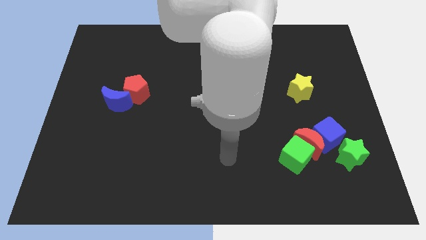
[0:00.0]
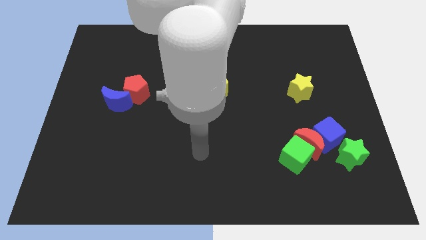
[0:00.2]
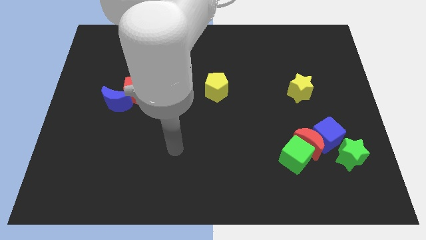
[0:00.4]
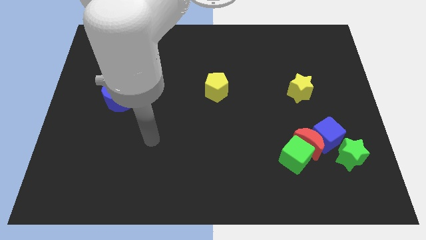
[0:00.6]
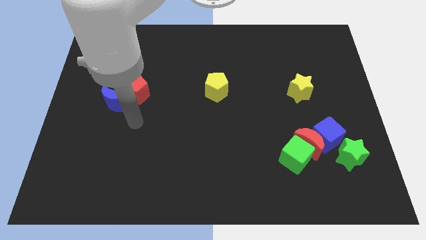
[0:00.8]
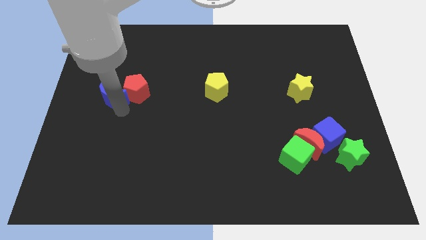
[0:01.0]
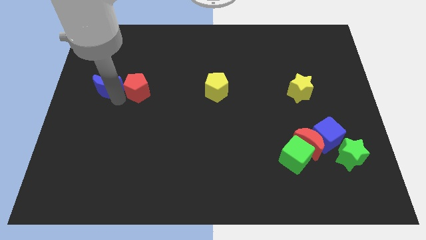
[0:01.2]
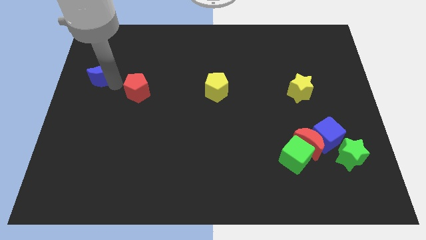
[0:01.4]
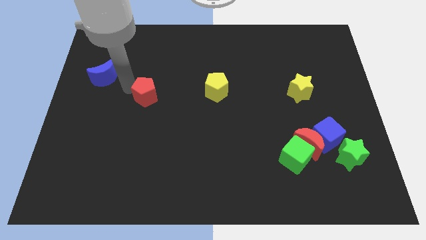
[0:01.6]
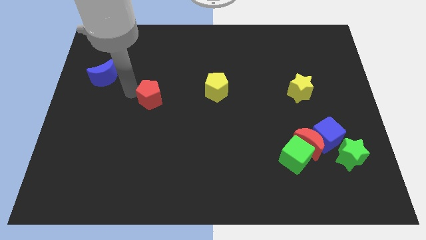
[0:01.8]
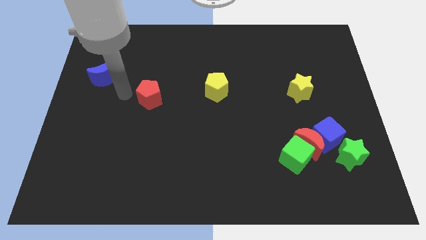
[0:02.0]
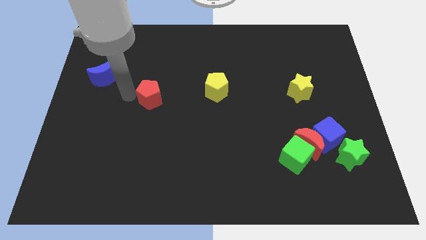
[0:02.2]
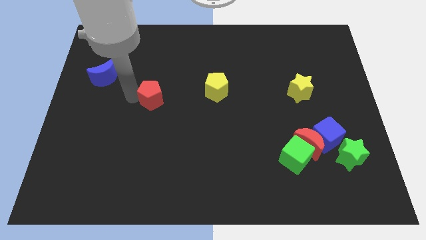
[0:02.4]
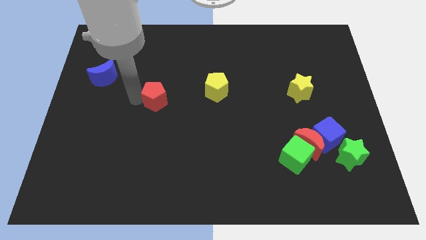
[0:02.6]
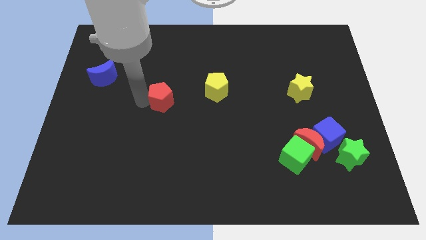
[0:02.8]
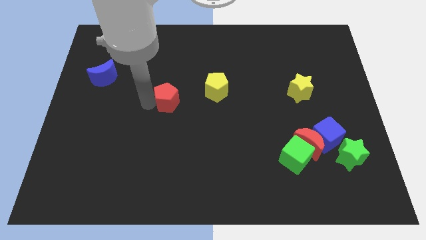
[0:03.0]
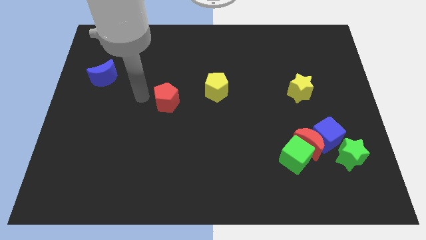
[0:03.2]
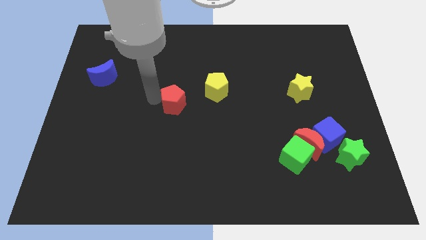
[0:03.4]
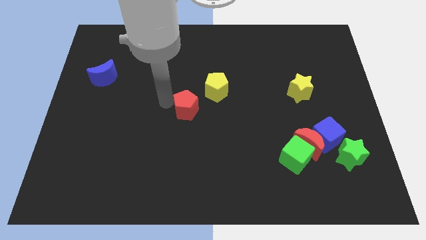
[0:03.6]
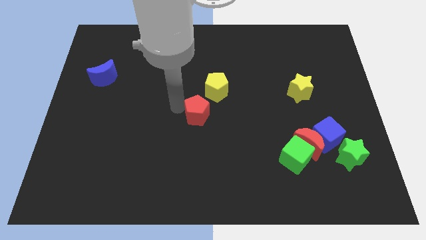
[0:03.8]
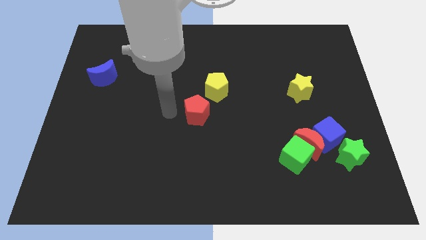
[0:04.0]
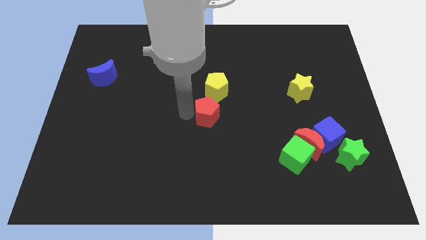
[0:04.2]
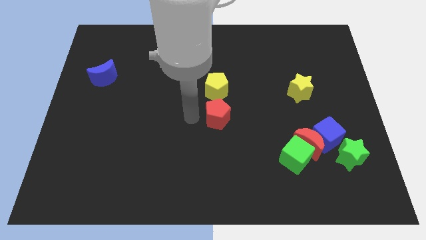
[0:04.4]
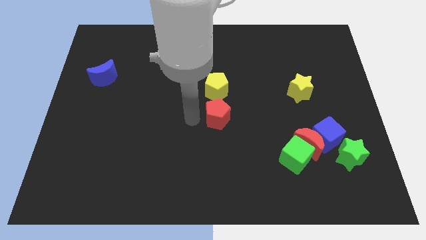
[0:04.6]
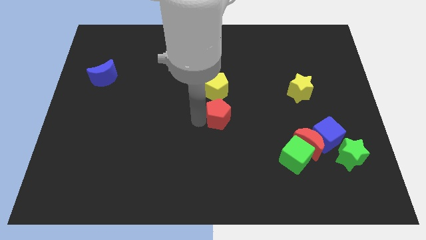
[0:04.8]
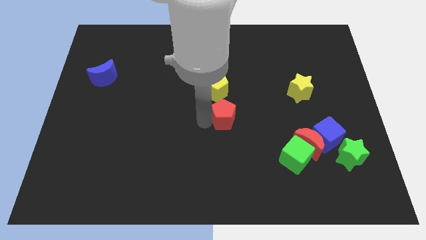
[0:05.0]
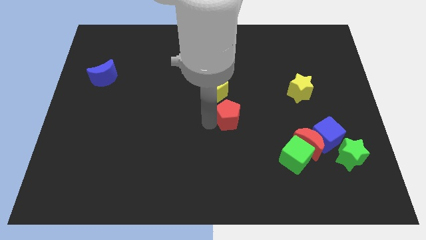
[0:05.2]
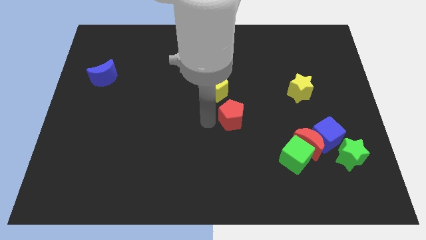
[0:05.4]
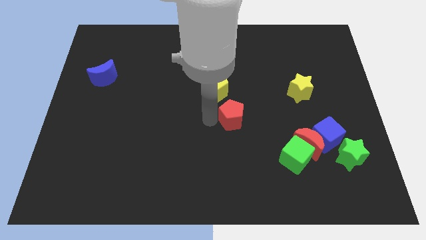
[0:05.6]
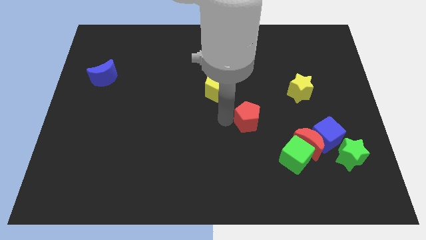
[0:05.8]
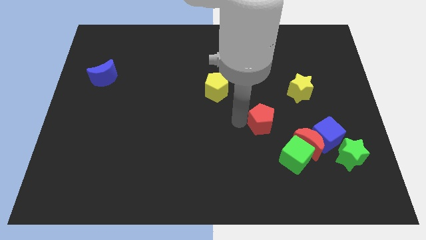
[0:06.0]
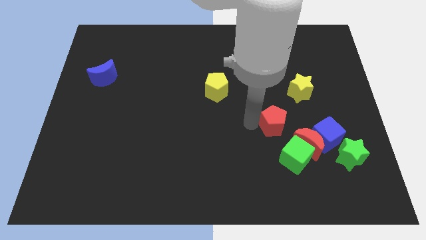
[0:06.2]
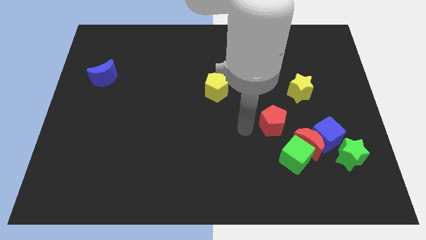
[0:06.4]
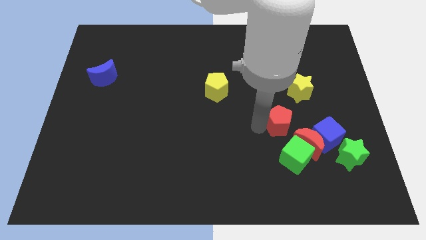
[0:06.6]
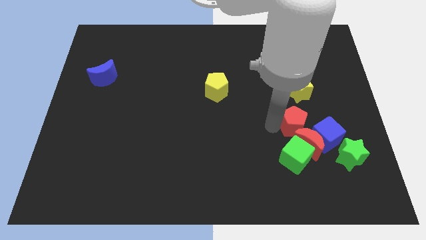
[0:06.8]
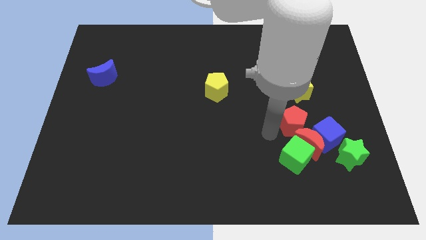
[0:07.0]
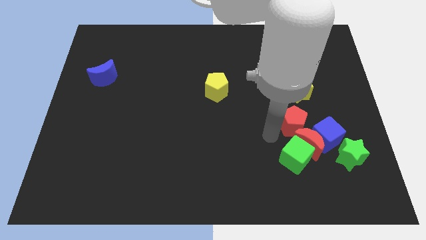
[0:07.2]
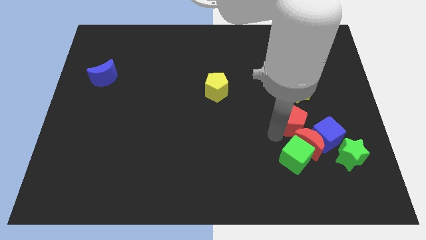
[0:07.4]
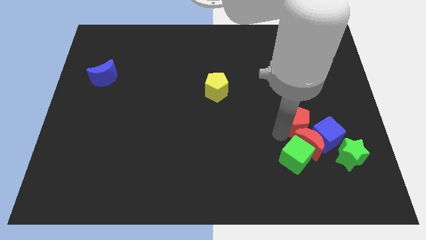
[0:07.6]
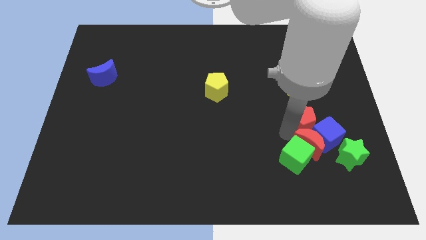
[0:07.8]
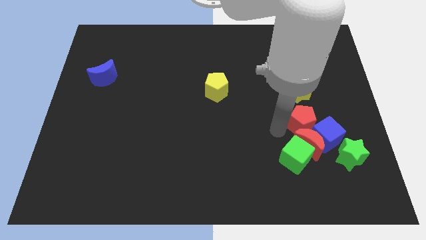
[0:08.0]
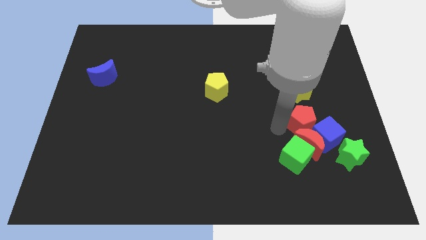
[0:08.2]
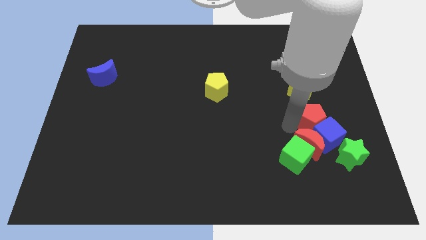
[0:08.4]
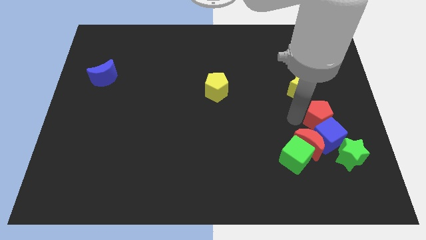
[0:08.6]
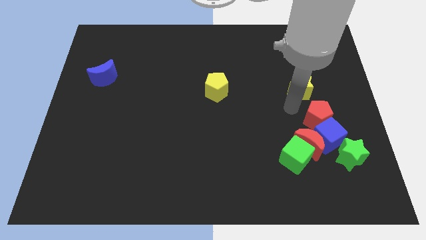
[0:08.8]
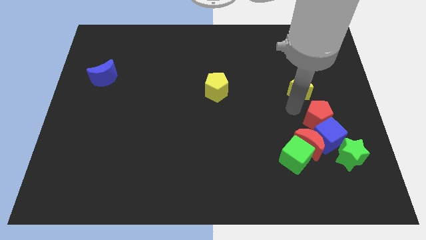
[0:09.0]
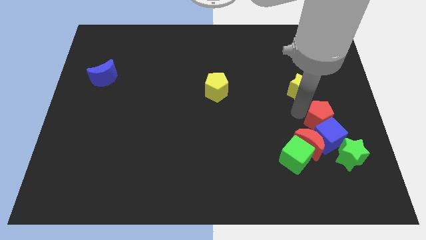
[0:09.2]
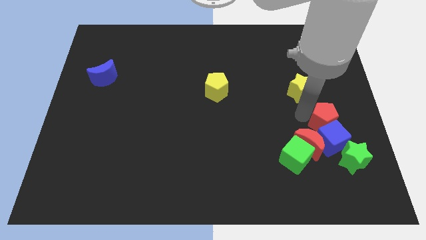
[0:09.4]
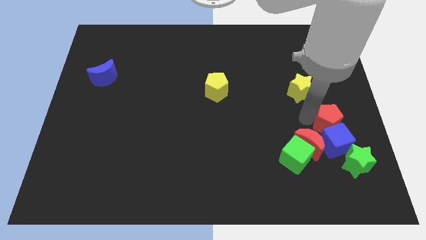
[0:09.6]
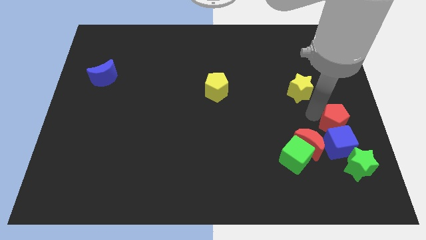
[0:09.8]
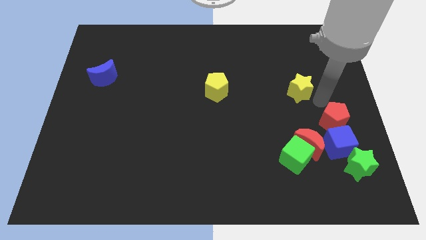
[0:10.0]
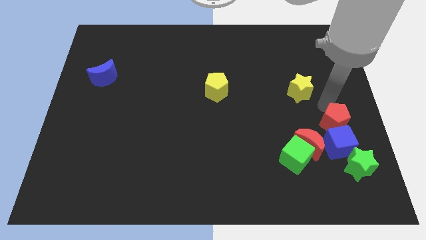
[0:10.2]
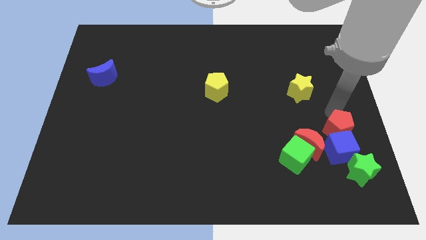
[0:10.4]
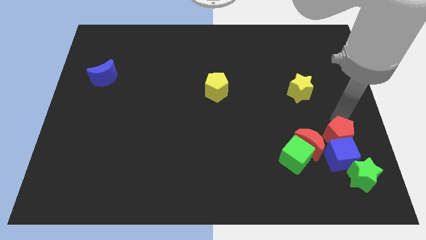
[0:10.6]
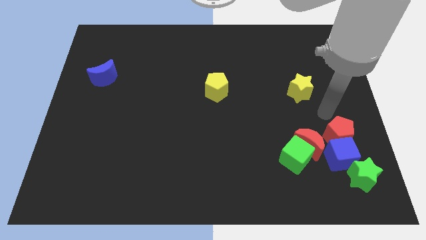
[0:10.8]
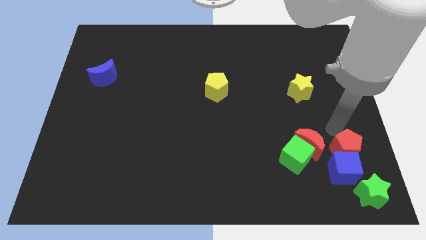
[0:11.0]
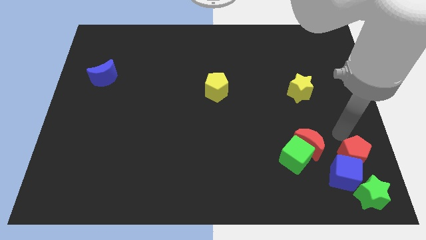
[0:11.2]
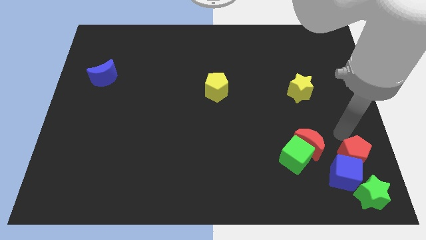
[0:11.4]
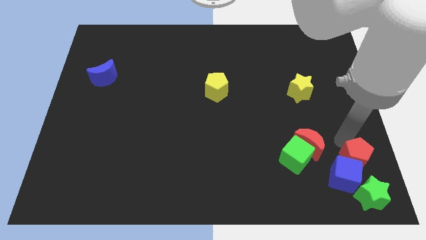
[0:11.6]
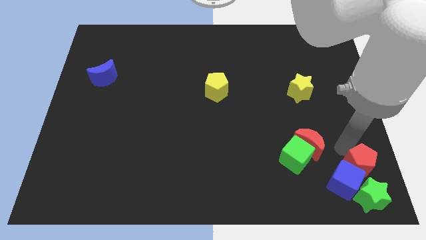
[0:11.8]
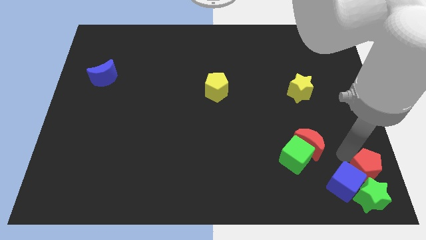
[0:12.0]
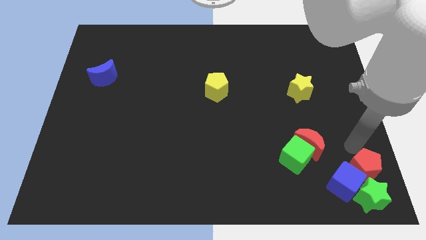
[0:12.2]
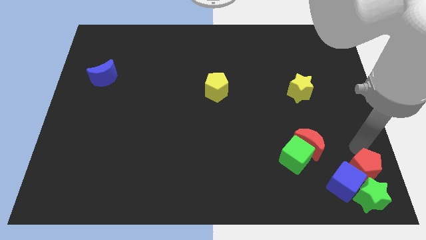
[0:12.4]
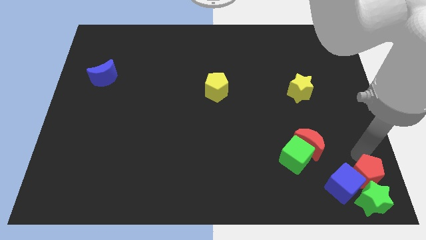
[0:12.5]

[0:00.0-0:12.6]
move the red pentagon close to the green star

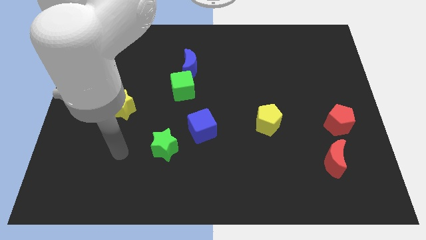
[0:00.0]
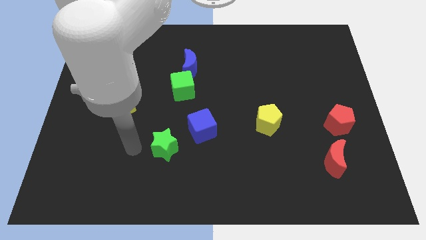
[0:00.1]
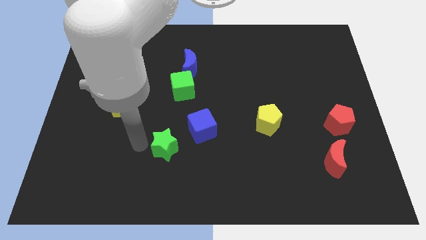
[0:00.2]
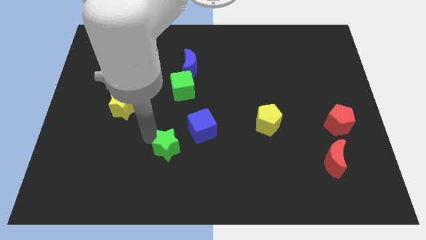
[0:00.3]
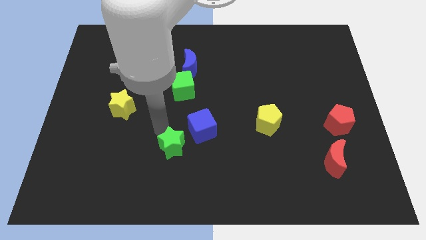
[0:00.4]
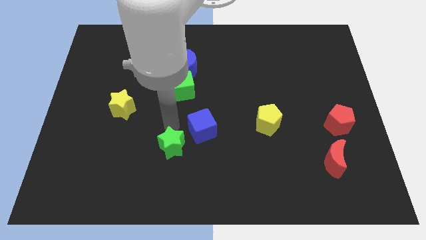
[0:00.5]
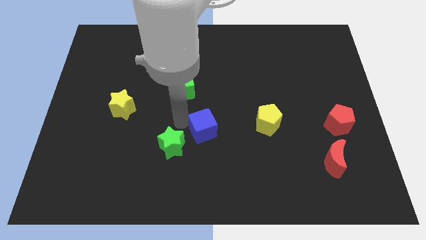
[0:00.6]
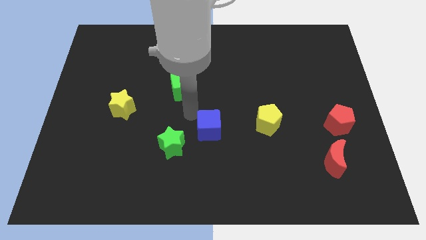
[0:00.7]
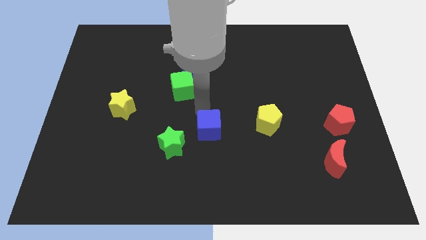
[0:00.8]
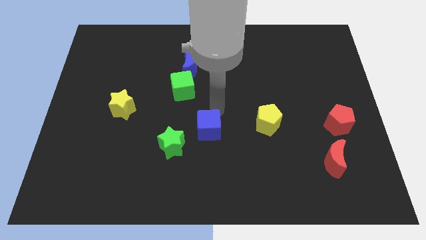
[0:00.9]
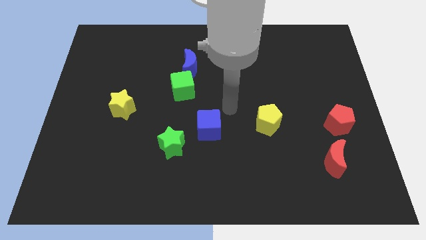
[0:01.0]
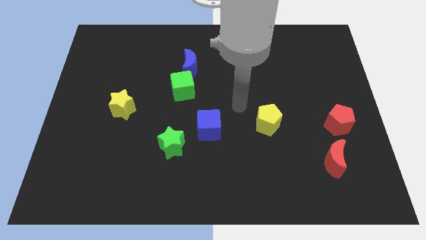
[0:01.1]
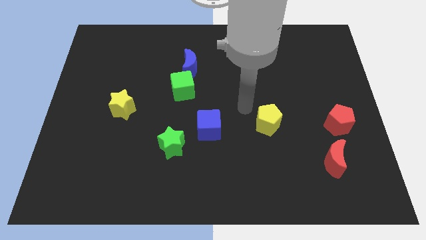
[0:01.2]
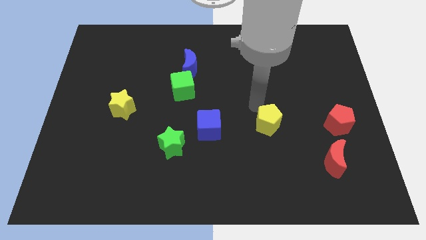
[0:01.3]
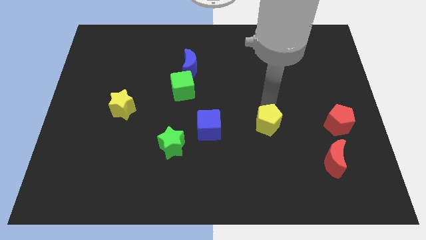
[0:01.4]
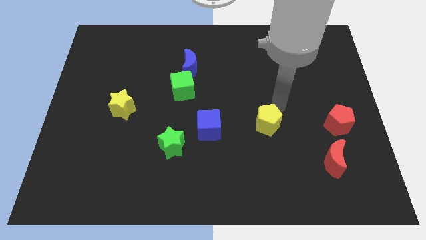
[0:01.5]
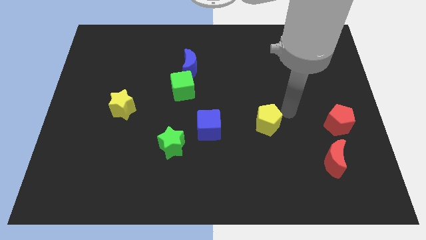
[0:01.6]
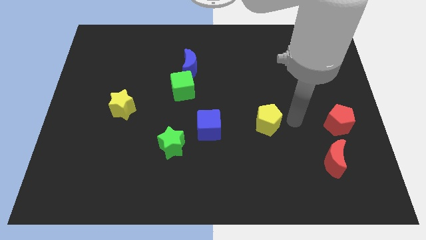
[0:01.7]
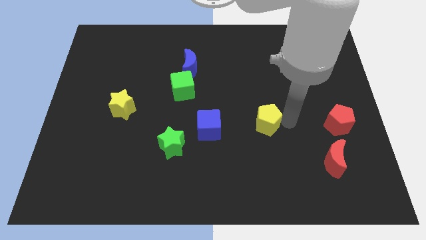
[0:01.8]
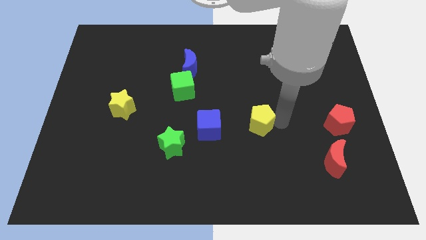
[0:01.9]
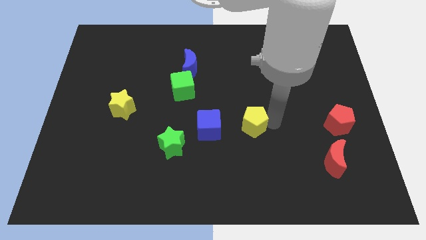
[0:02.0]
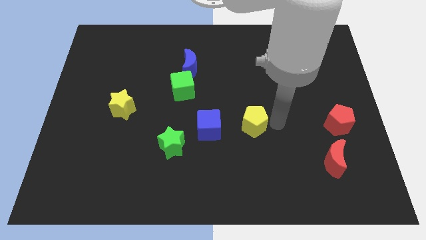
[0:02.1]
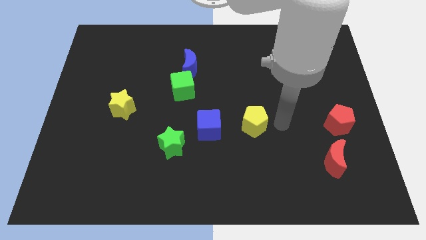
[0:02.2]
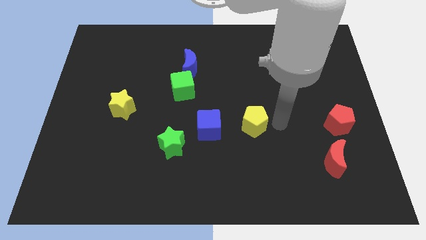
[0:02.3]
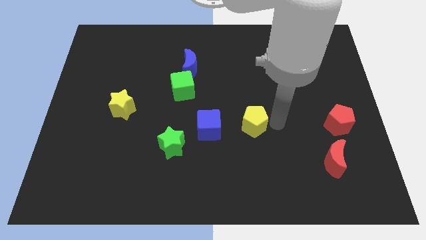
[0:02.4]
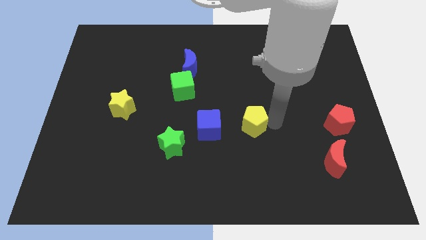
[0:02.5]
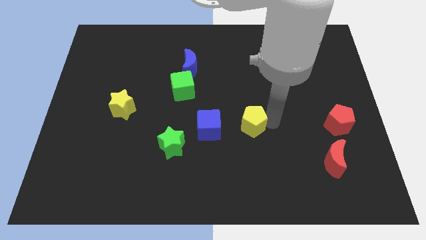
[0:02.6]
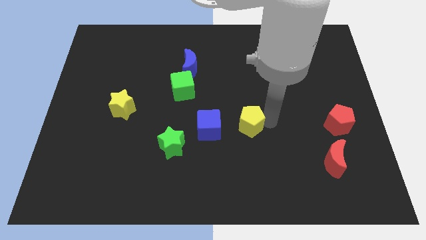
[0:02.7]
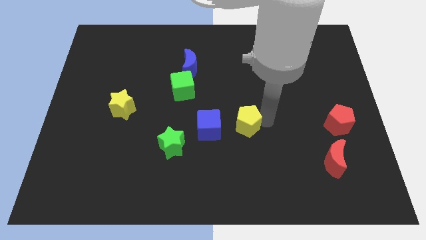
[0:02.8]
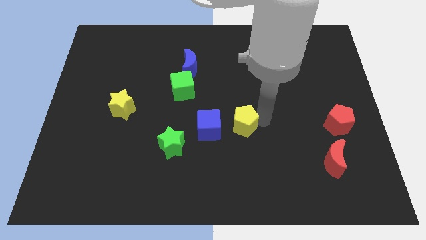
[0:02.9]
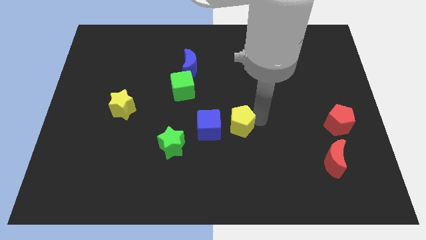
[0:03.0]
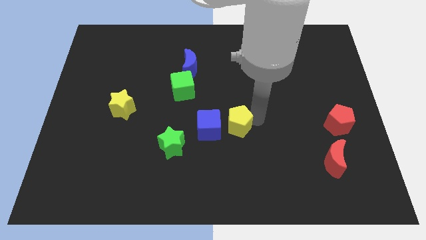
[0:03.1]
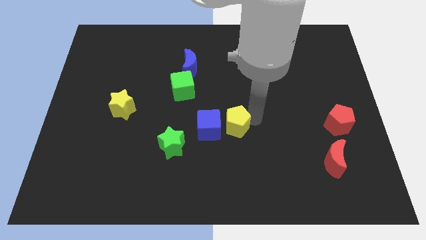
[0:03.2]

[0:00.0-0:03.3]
put the yellow pentagon close to the blue cube
